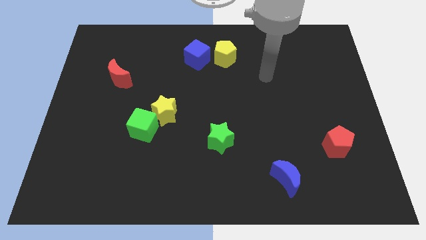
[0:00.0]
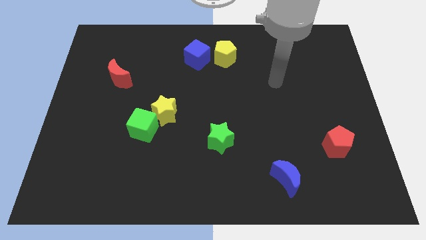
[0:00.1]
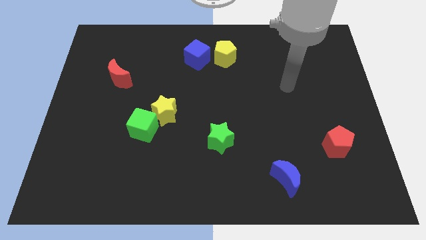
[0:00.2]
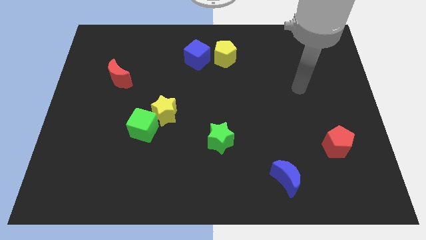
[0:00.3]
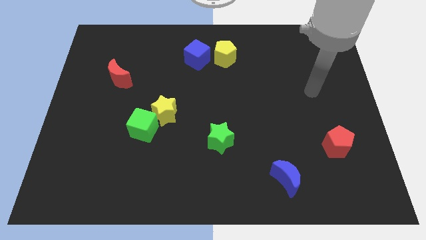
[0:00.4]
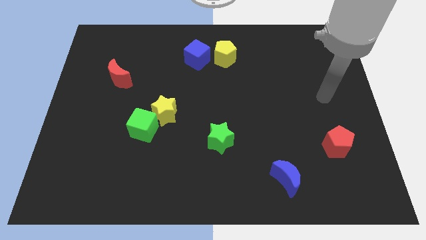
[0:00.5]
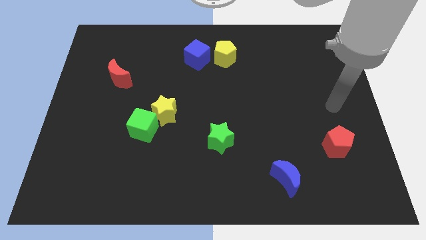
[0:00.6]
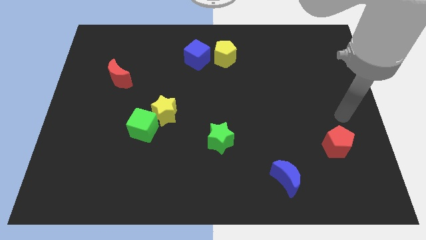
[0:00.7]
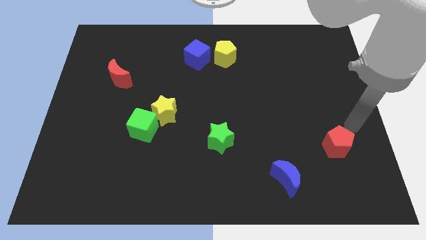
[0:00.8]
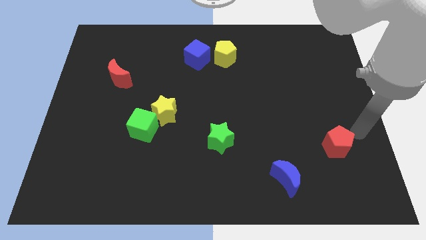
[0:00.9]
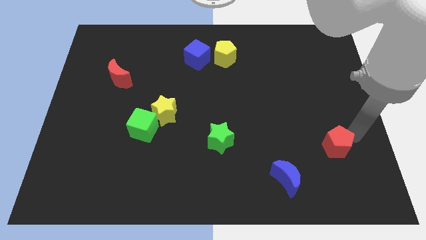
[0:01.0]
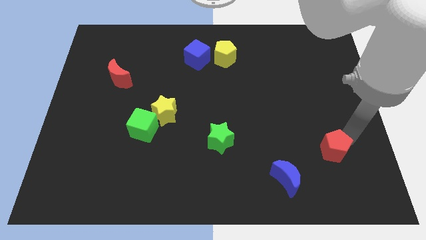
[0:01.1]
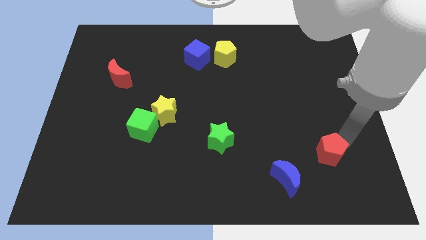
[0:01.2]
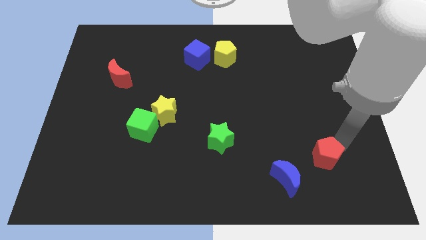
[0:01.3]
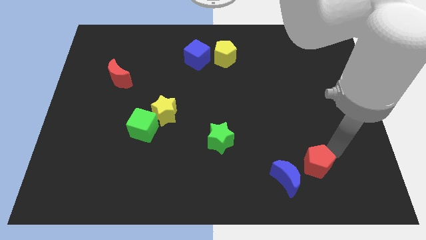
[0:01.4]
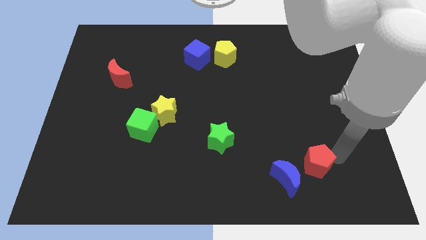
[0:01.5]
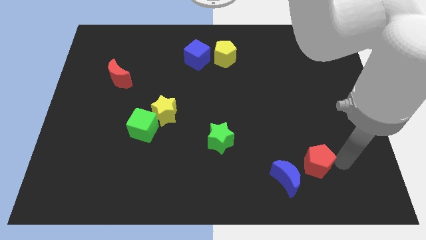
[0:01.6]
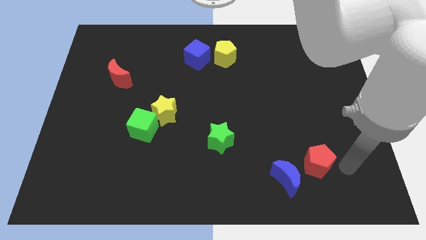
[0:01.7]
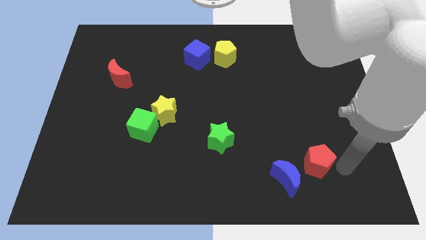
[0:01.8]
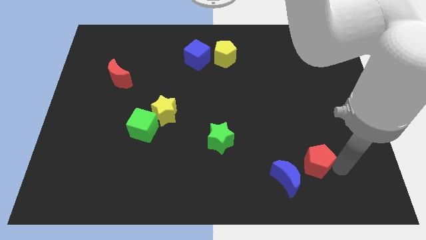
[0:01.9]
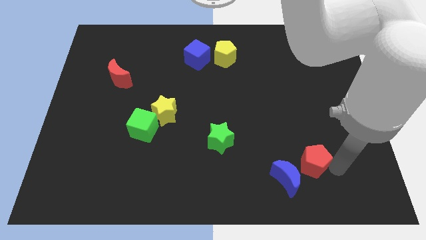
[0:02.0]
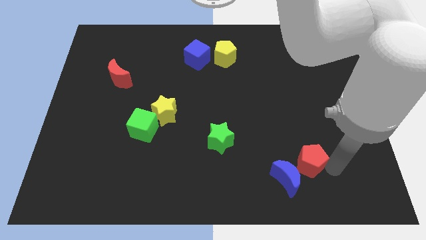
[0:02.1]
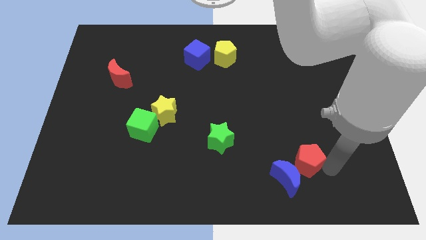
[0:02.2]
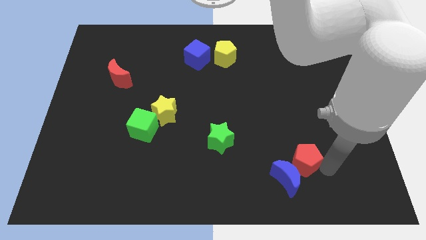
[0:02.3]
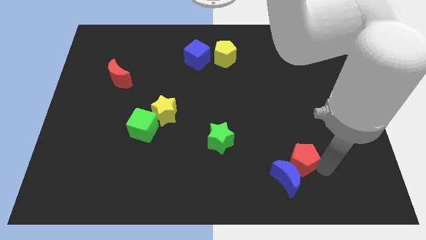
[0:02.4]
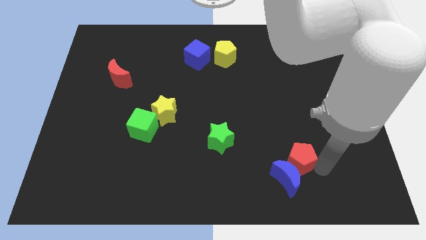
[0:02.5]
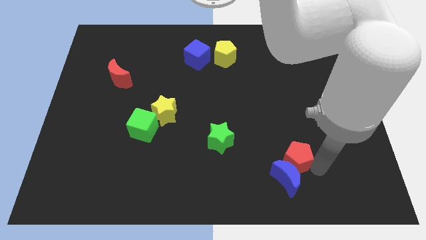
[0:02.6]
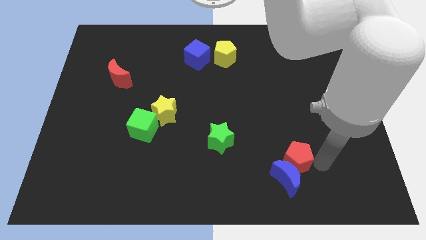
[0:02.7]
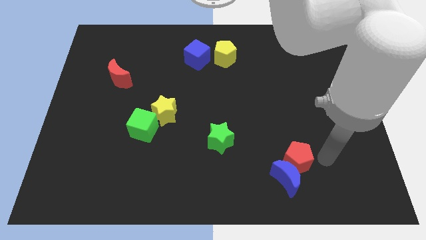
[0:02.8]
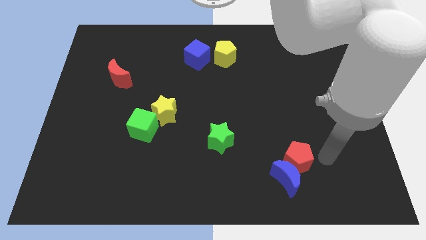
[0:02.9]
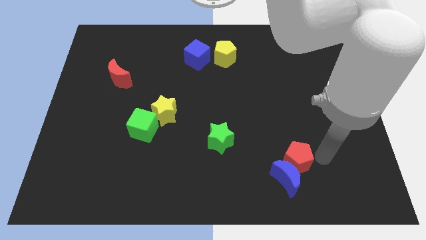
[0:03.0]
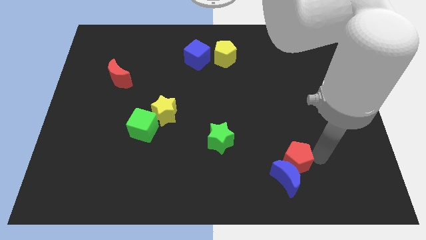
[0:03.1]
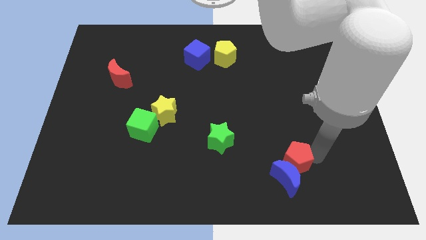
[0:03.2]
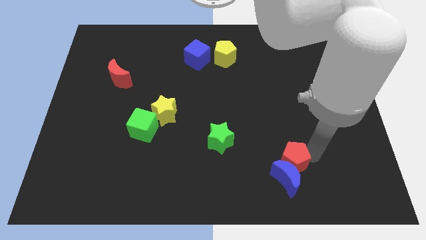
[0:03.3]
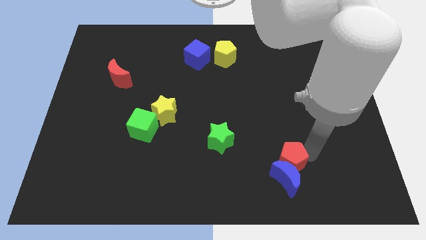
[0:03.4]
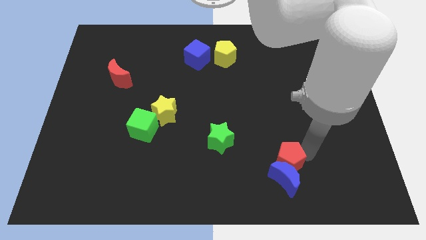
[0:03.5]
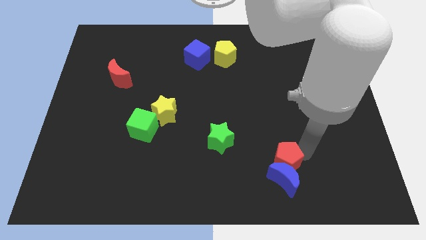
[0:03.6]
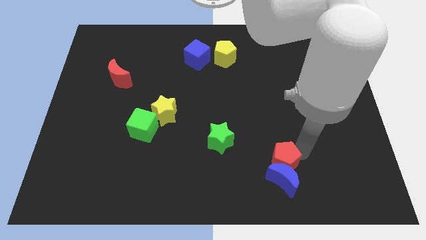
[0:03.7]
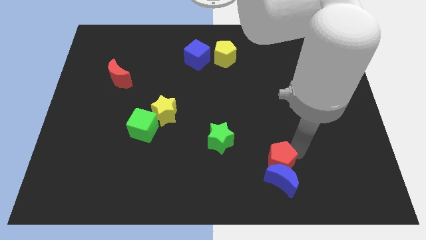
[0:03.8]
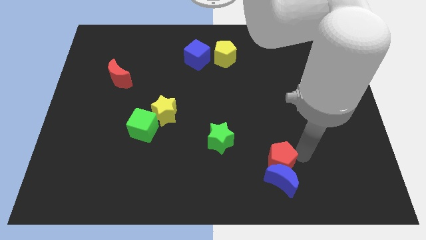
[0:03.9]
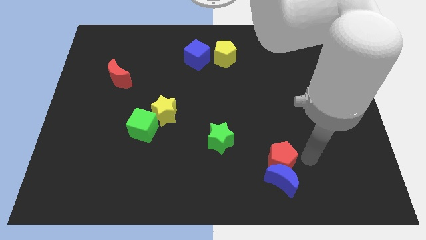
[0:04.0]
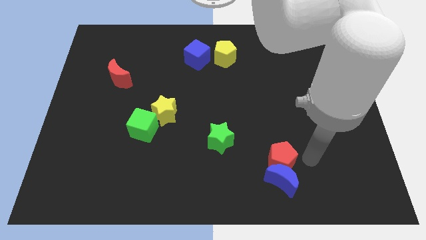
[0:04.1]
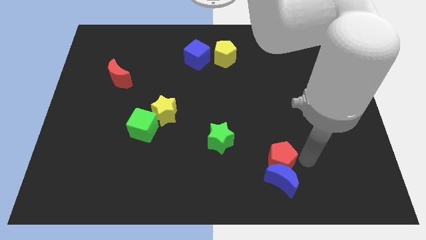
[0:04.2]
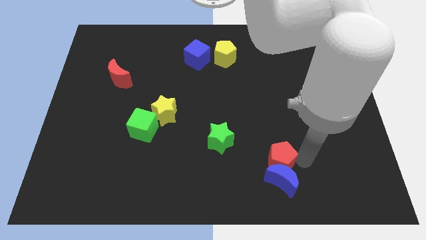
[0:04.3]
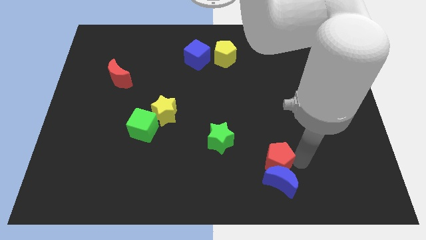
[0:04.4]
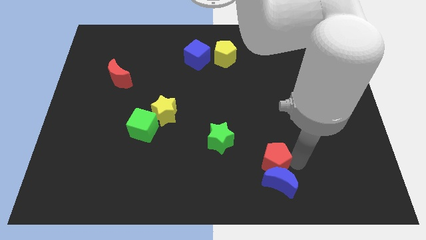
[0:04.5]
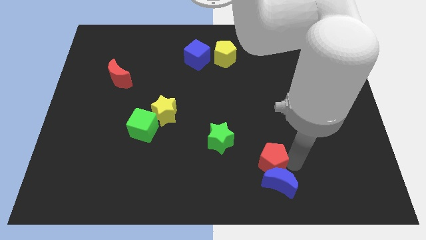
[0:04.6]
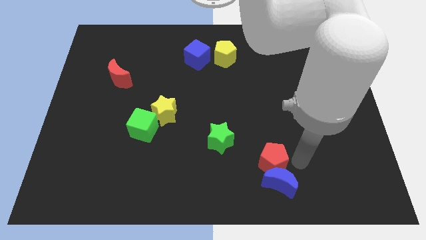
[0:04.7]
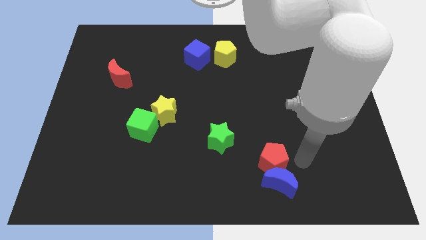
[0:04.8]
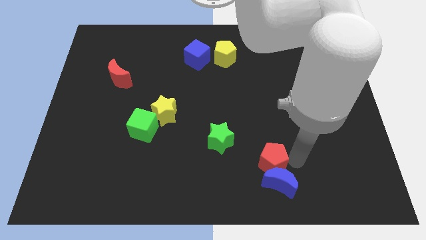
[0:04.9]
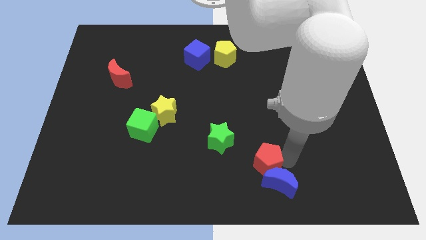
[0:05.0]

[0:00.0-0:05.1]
slide the red pentagon to the bottom right of the green star

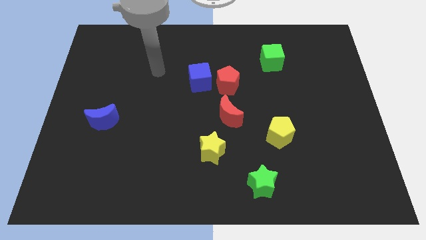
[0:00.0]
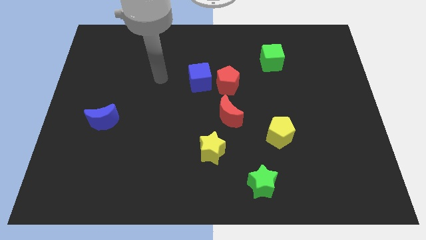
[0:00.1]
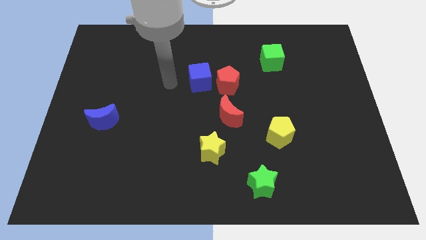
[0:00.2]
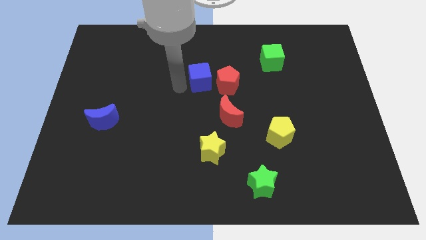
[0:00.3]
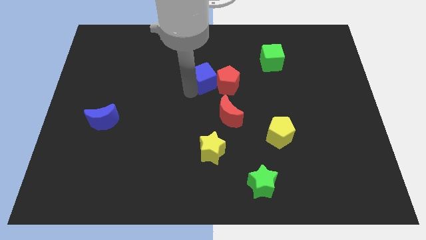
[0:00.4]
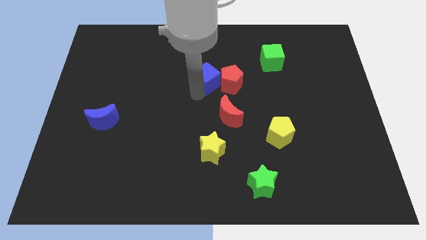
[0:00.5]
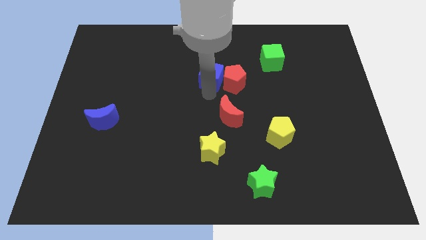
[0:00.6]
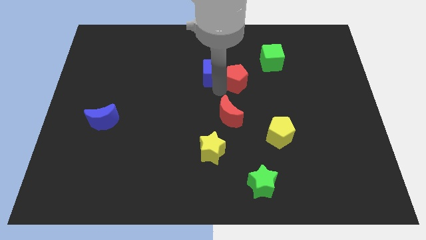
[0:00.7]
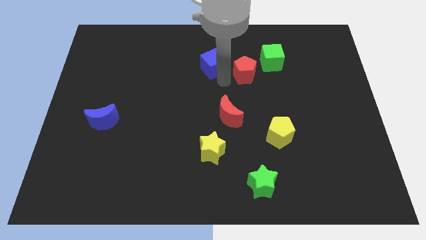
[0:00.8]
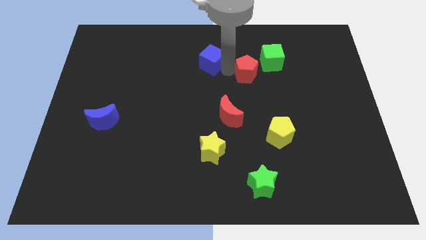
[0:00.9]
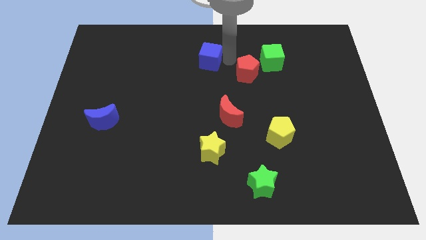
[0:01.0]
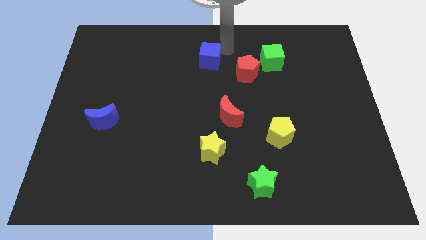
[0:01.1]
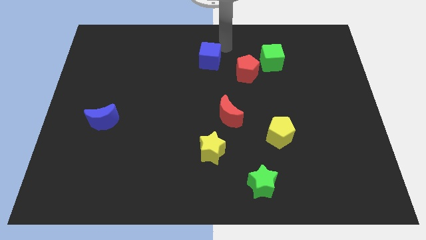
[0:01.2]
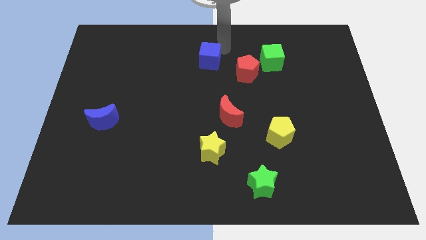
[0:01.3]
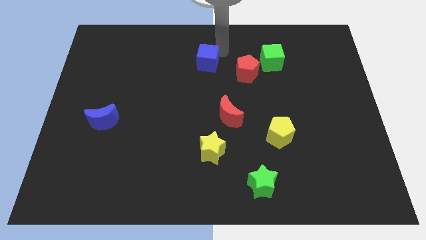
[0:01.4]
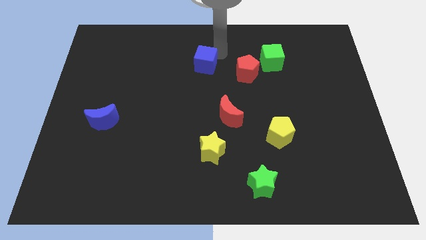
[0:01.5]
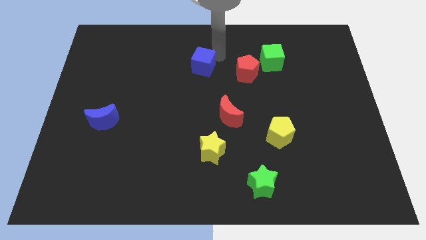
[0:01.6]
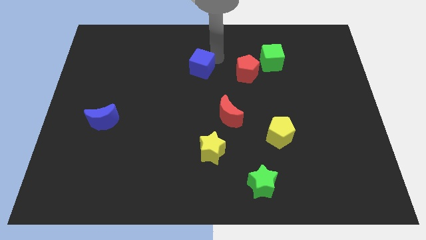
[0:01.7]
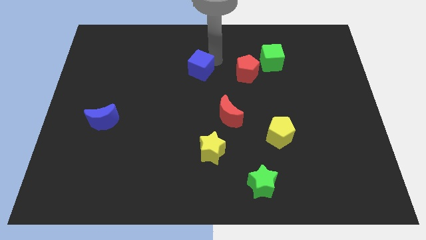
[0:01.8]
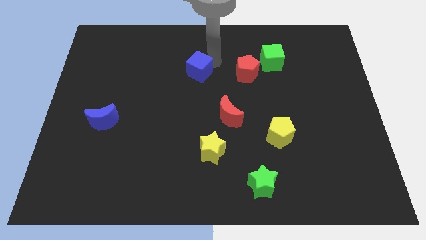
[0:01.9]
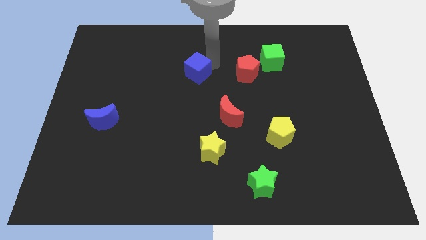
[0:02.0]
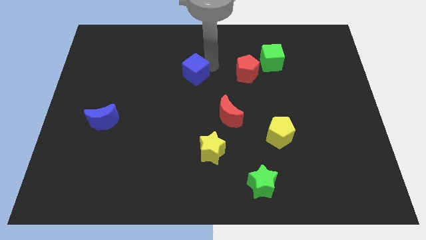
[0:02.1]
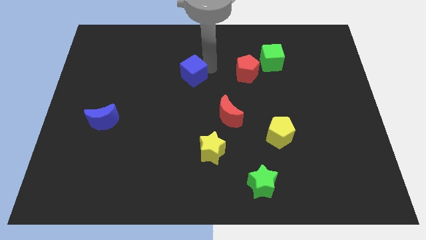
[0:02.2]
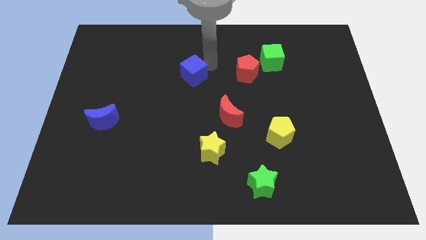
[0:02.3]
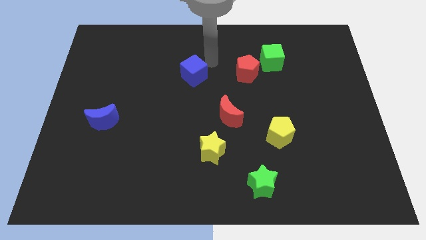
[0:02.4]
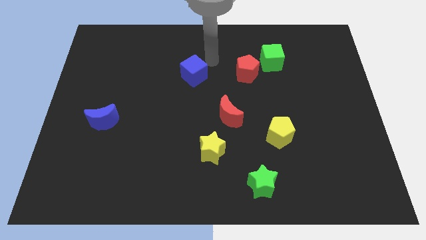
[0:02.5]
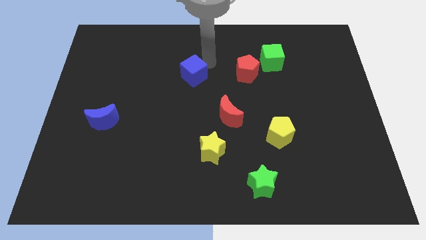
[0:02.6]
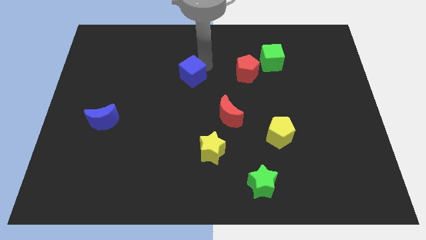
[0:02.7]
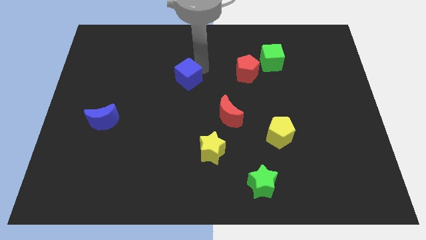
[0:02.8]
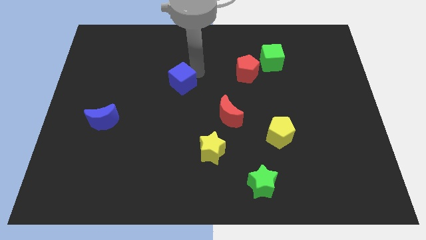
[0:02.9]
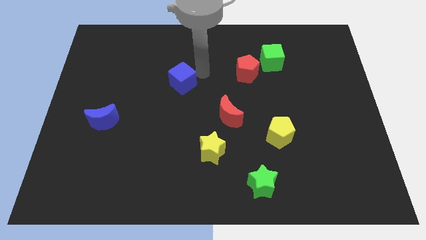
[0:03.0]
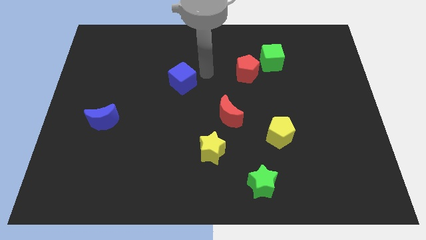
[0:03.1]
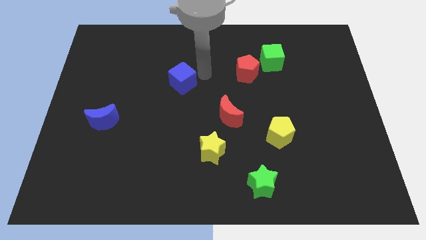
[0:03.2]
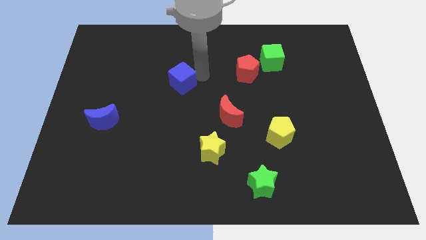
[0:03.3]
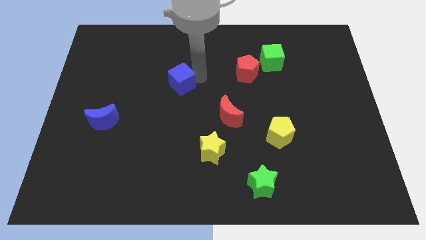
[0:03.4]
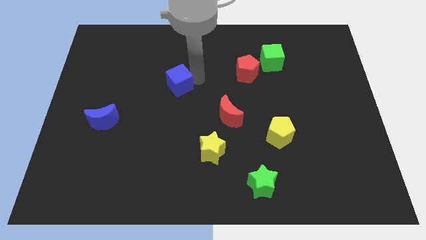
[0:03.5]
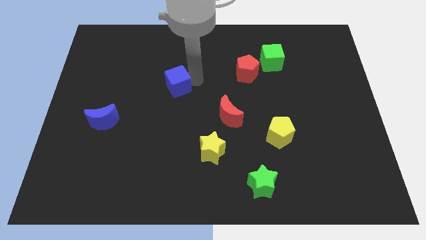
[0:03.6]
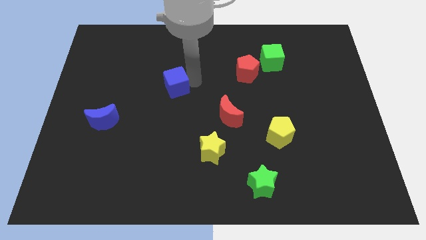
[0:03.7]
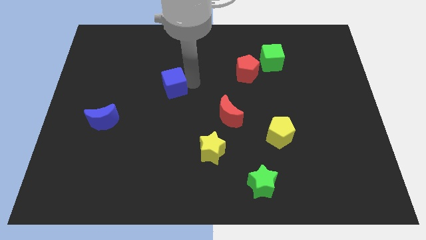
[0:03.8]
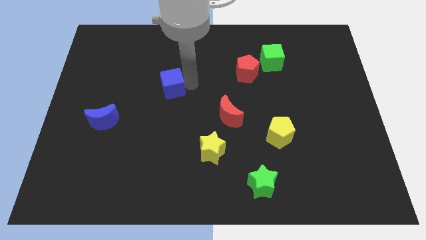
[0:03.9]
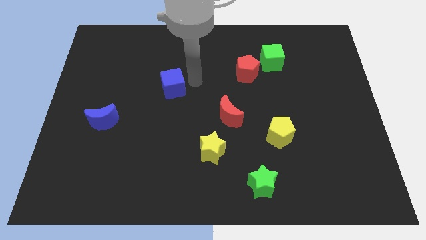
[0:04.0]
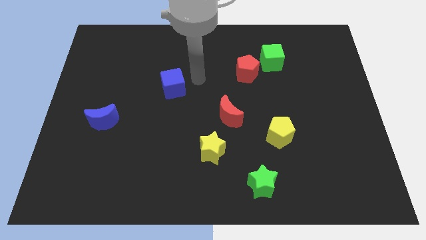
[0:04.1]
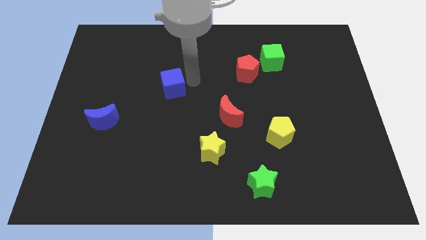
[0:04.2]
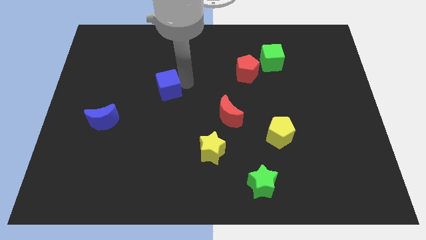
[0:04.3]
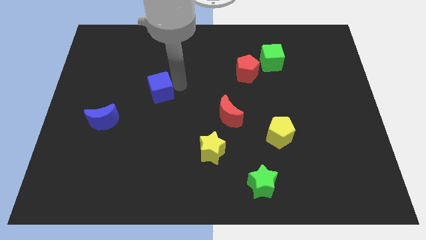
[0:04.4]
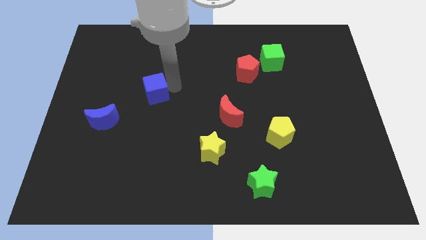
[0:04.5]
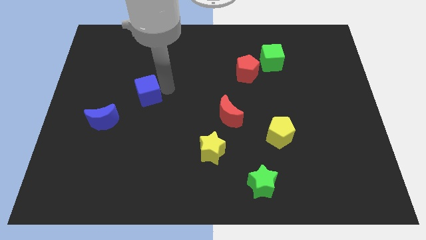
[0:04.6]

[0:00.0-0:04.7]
push the blue cube diagonally up and to the right of the blue moon
